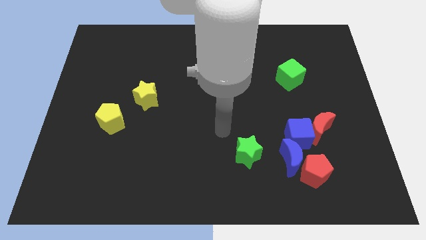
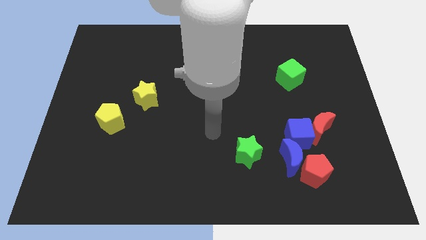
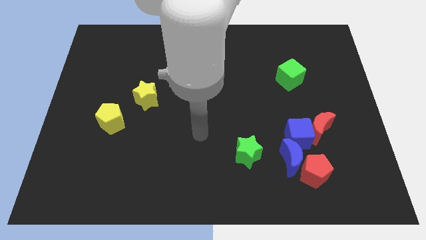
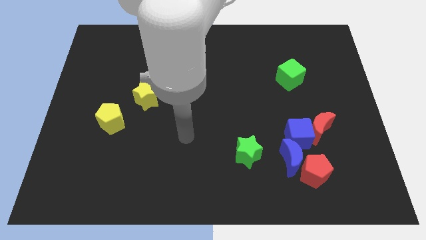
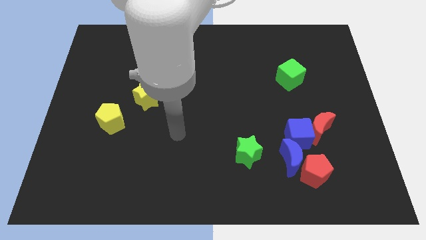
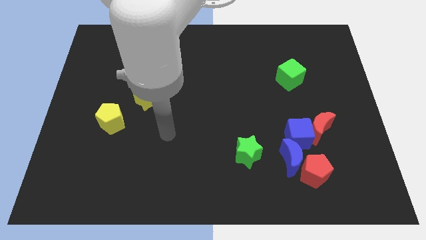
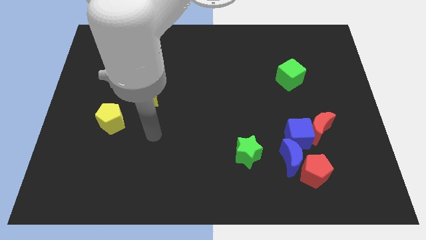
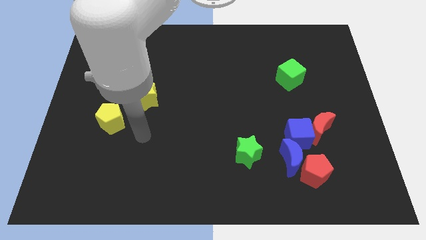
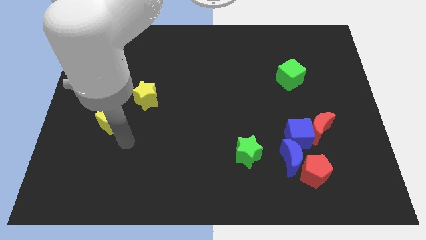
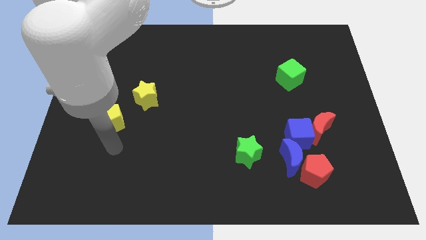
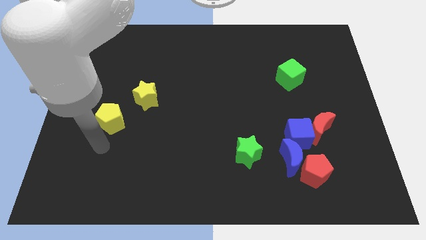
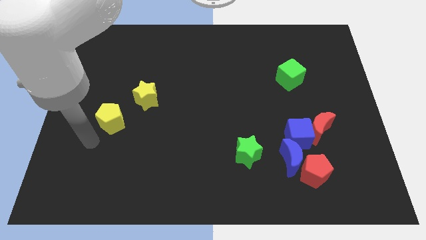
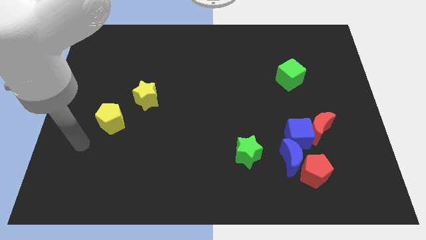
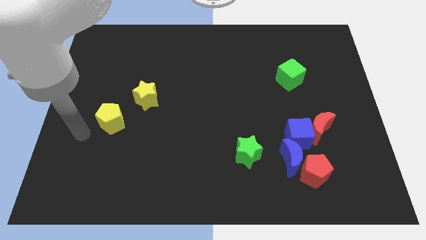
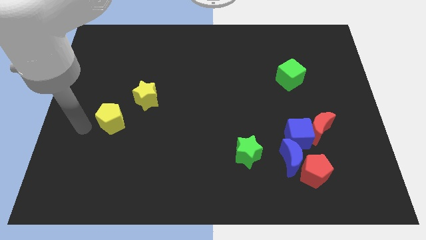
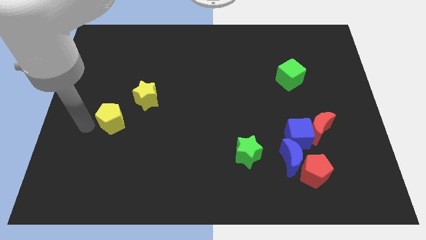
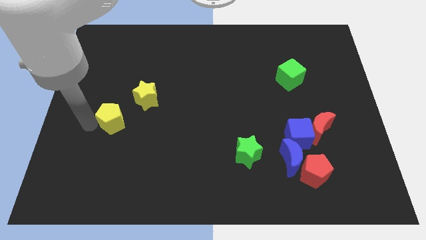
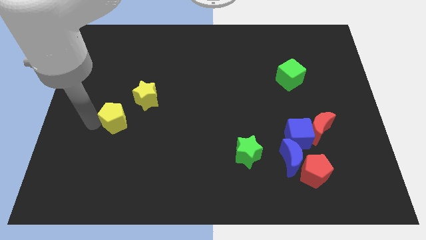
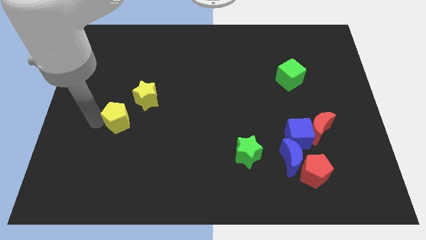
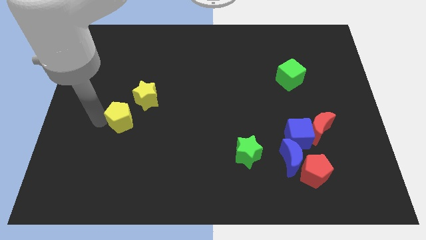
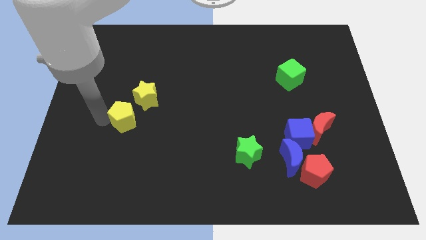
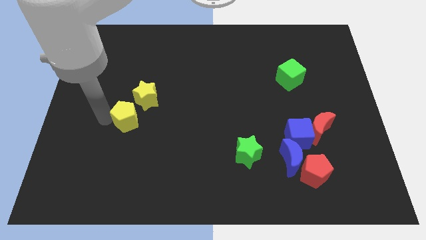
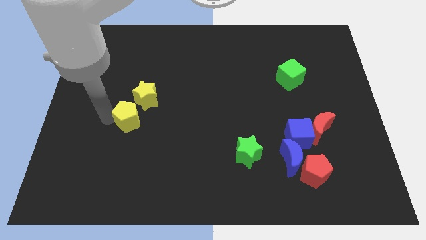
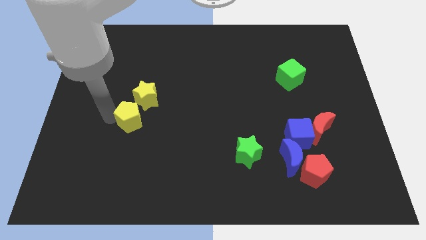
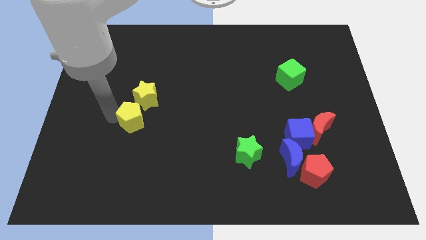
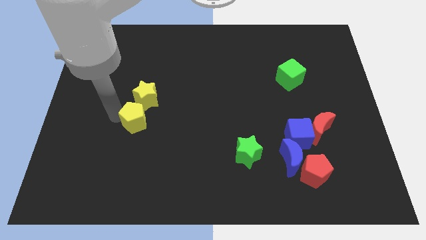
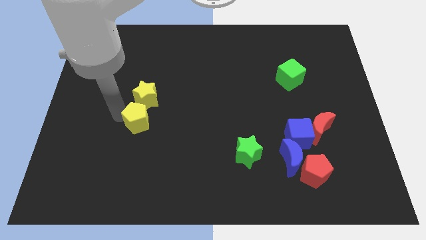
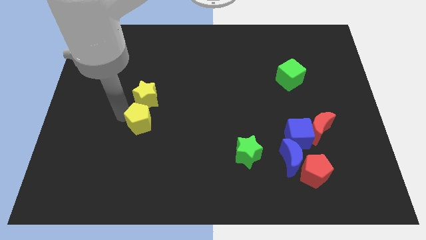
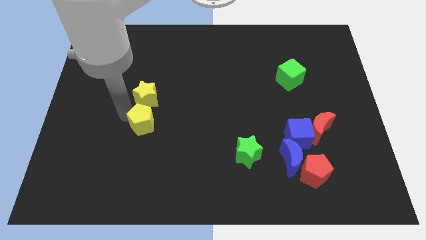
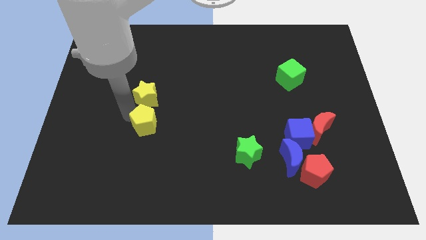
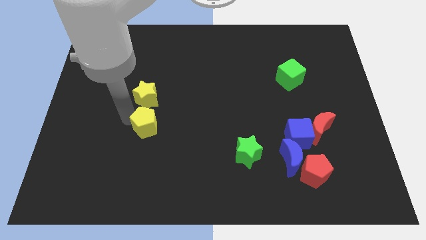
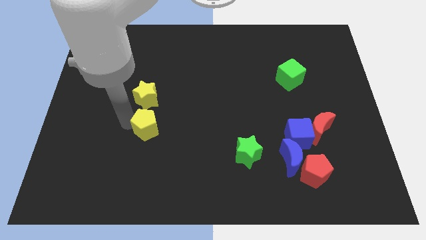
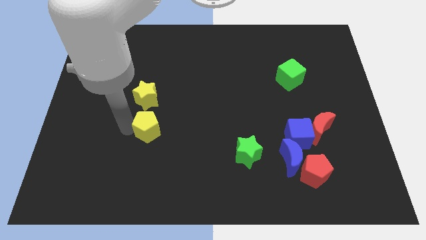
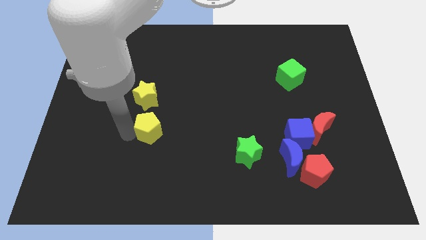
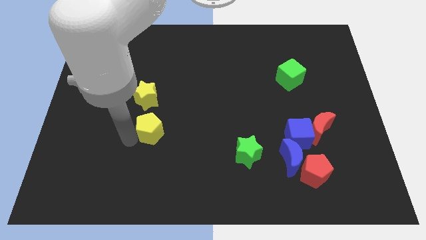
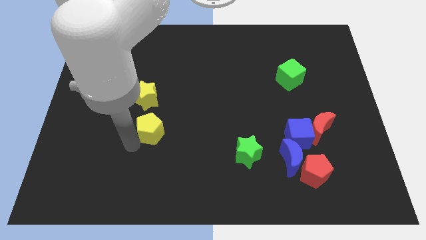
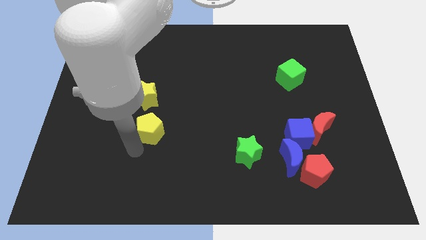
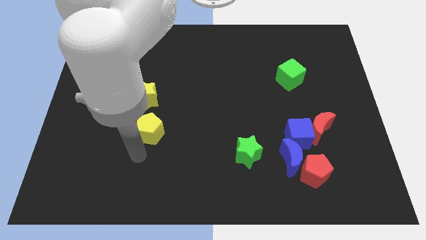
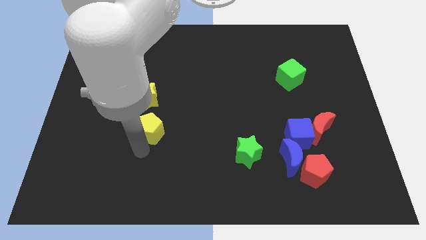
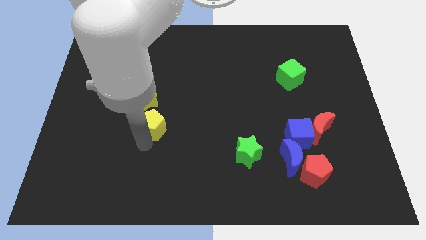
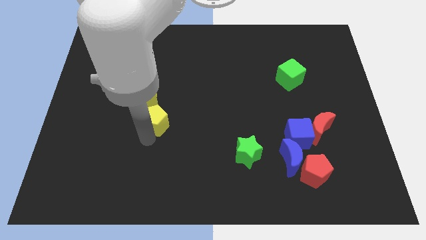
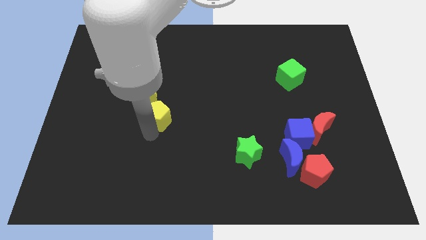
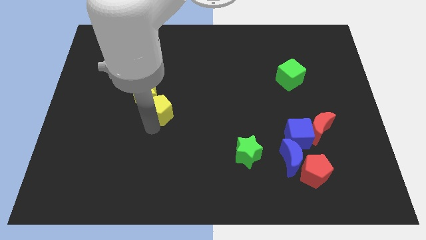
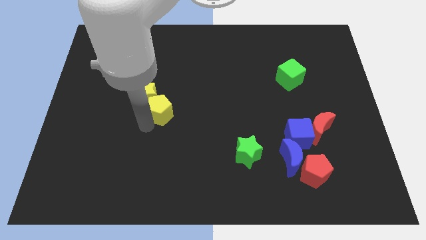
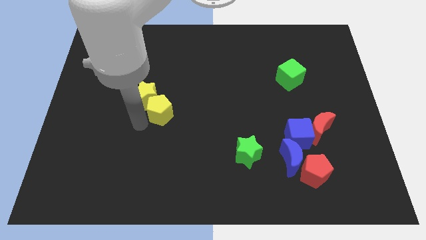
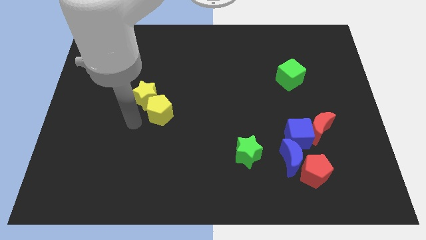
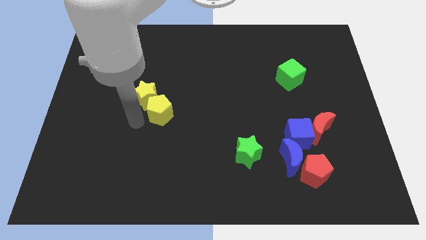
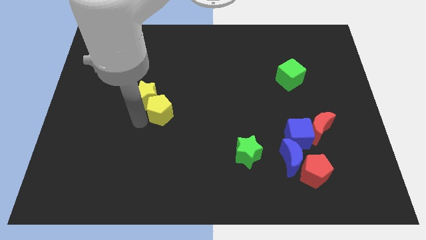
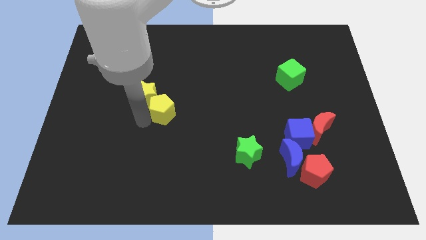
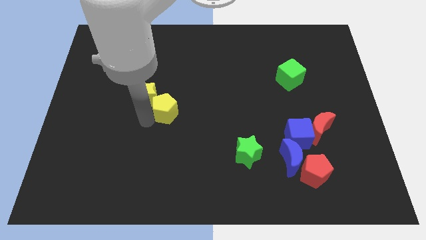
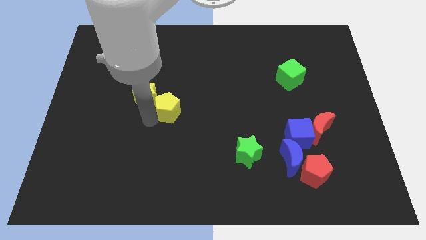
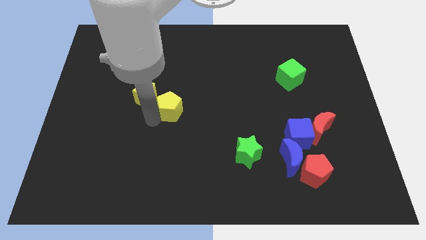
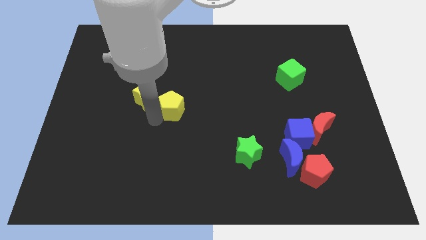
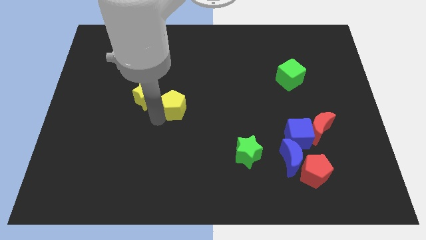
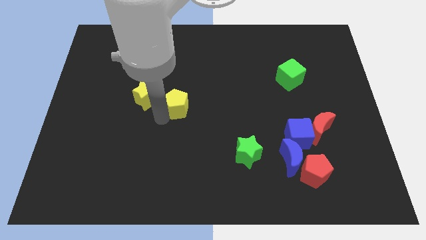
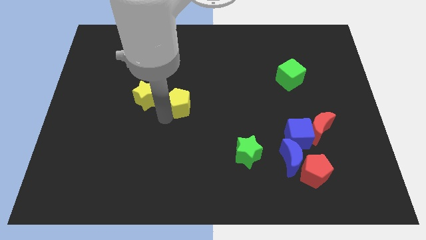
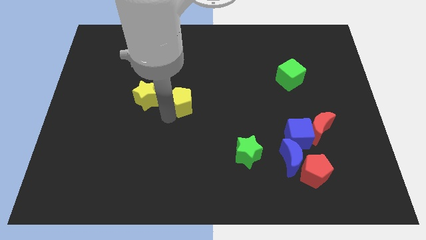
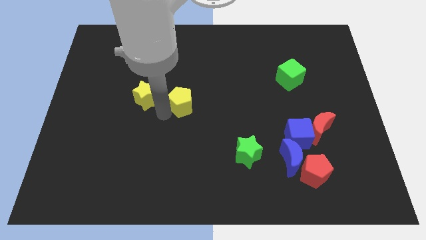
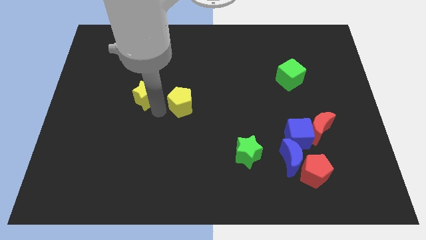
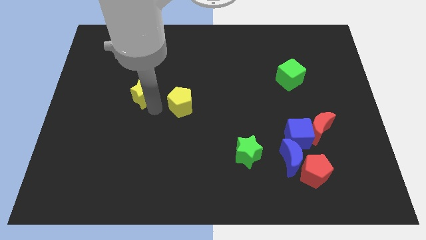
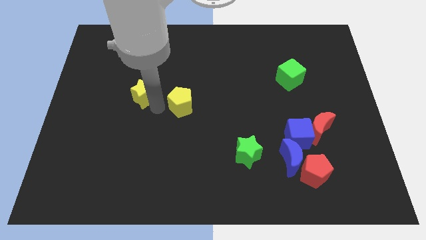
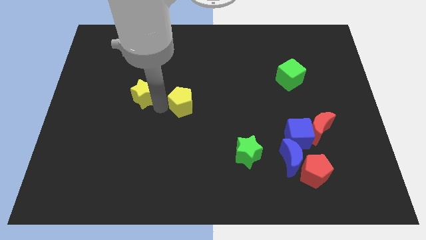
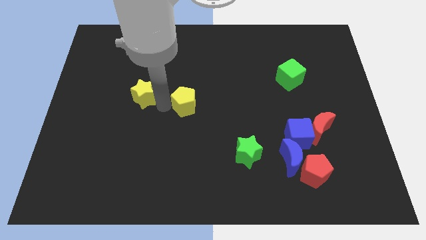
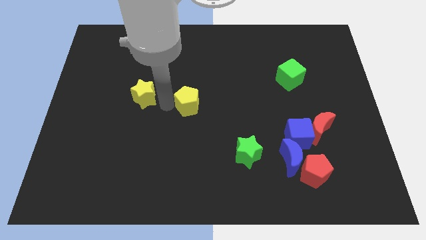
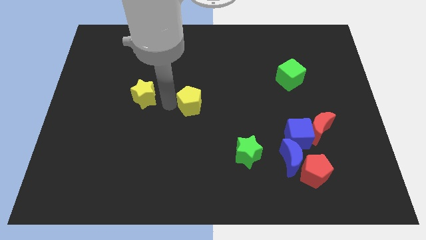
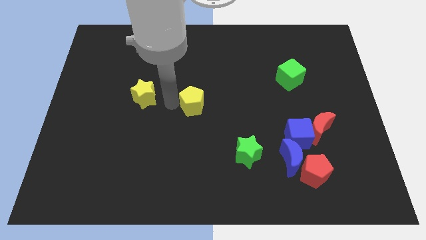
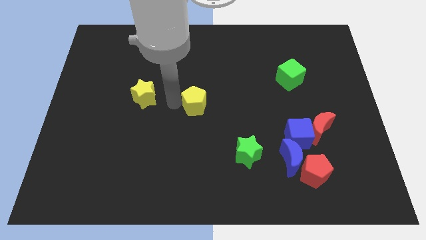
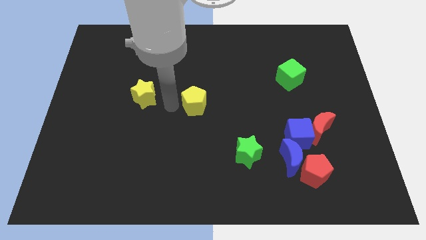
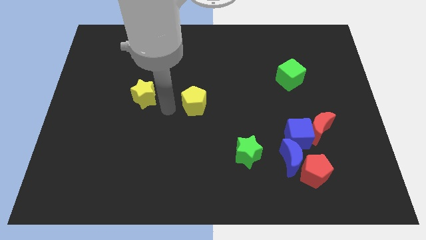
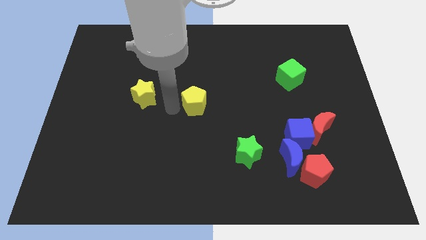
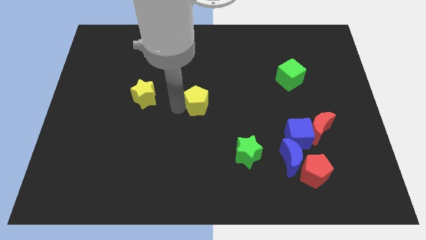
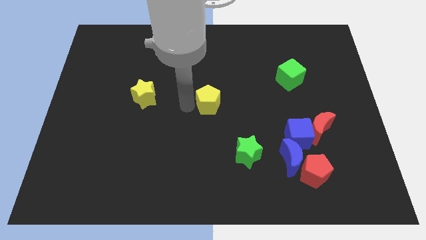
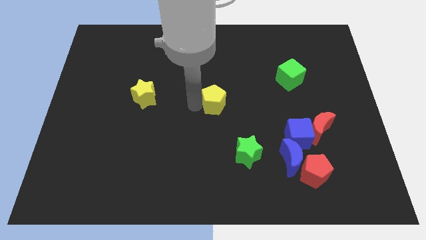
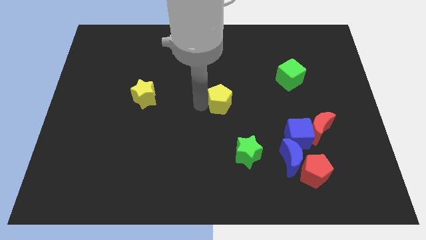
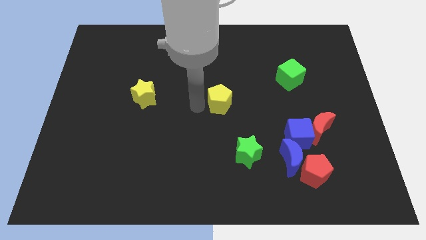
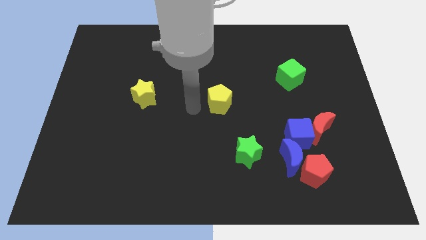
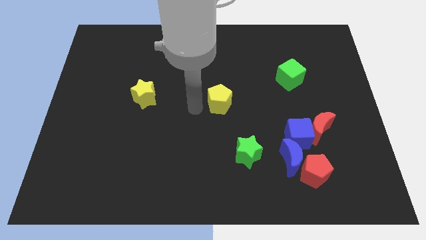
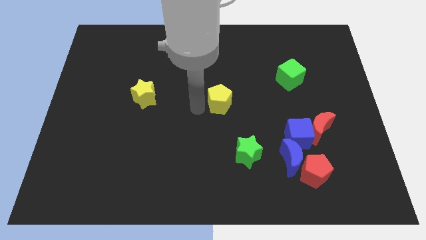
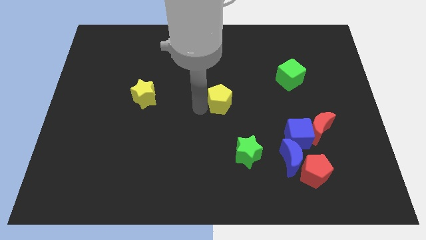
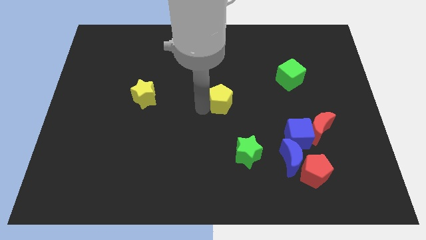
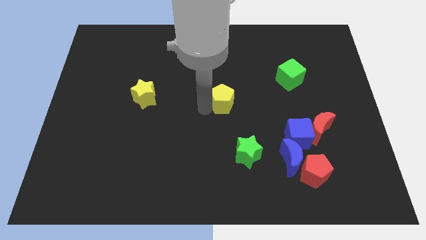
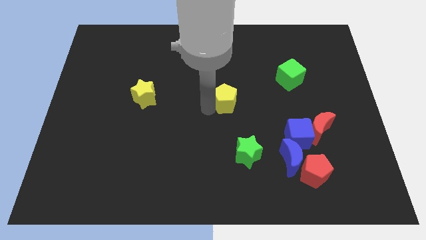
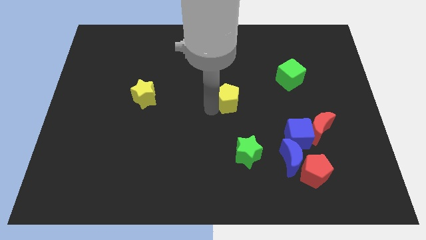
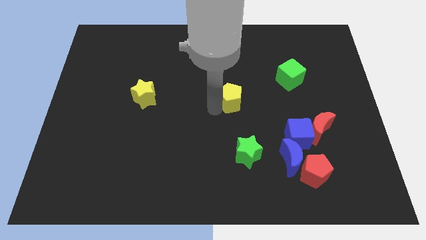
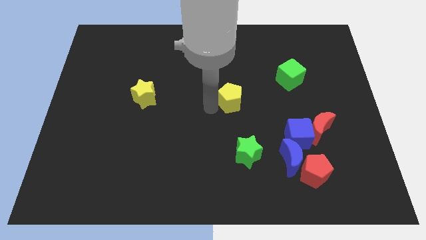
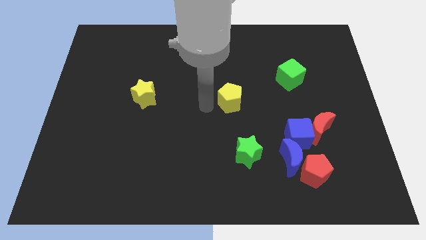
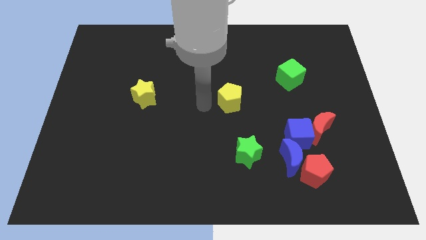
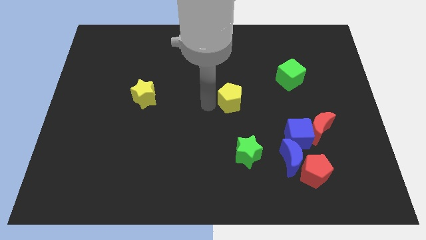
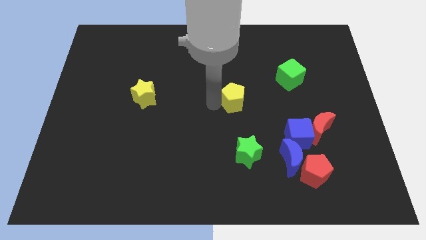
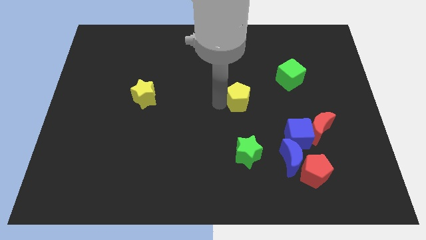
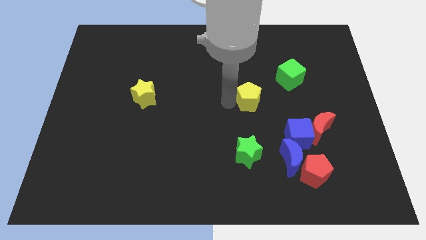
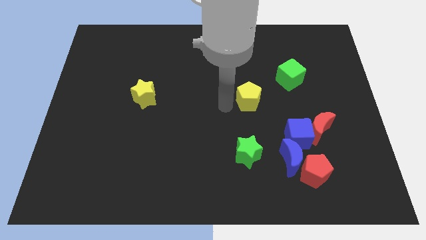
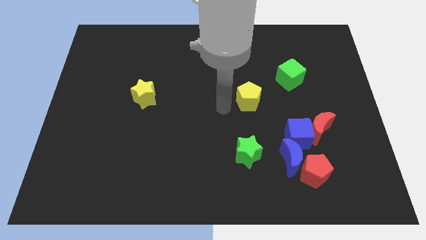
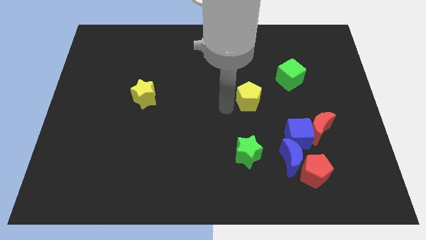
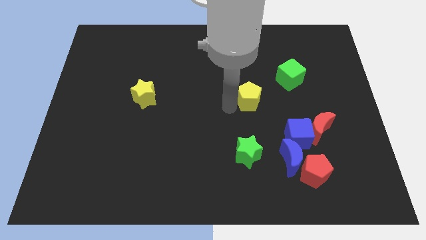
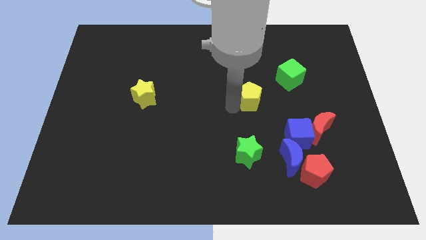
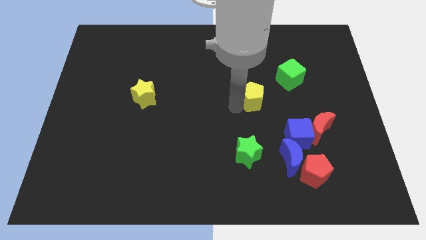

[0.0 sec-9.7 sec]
move the yellow pentagon to the bottom left of the green cube
